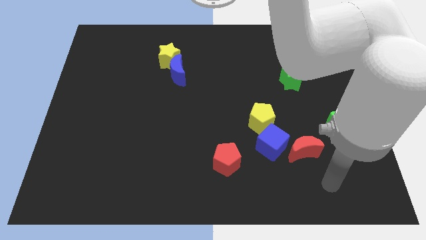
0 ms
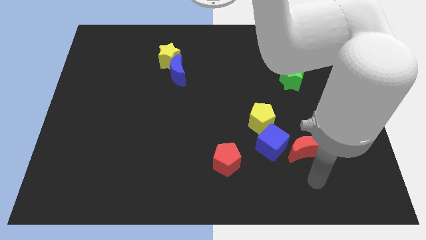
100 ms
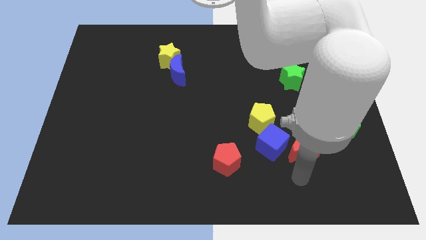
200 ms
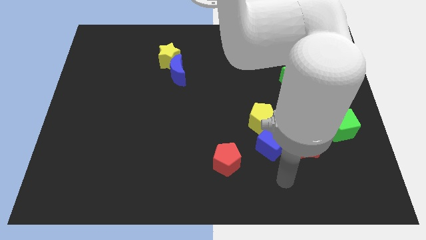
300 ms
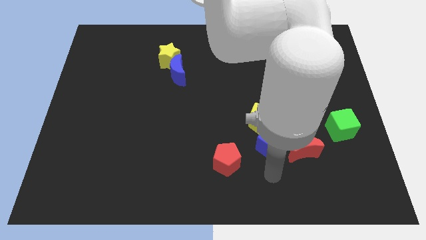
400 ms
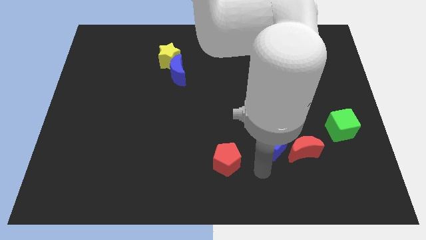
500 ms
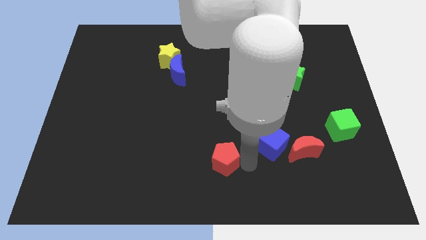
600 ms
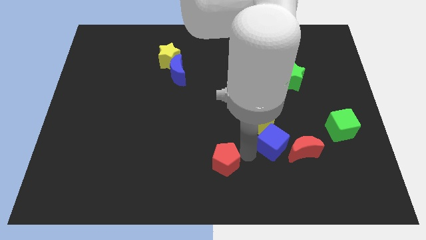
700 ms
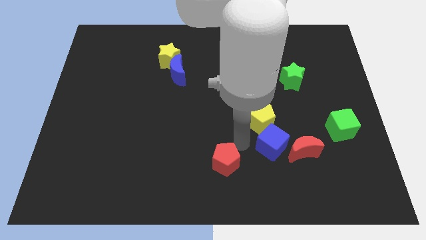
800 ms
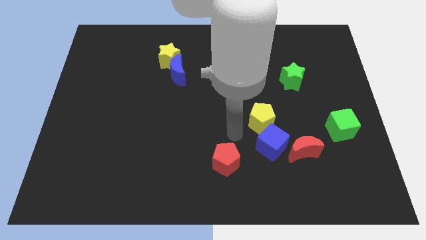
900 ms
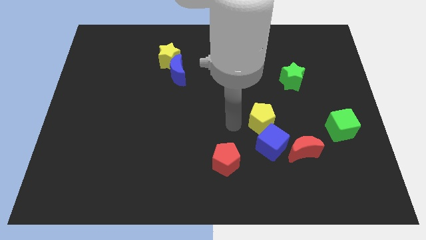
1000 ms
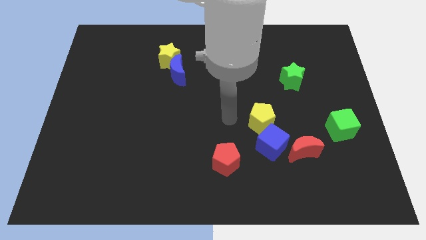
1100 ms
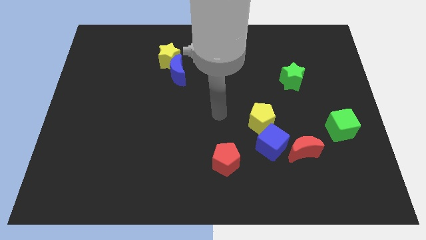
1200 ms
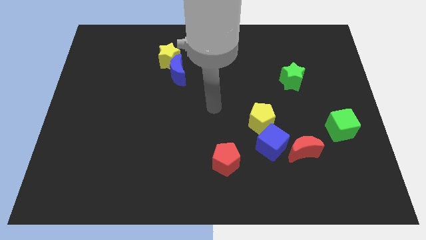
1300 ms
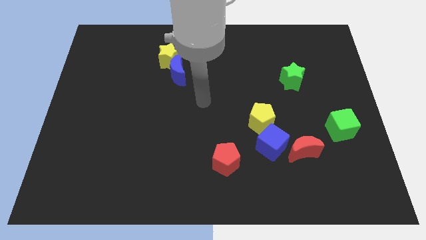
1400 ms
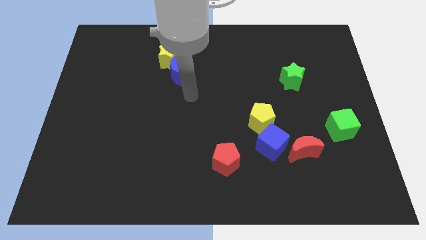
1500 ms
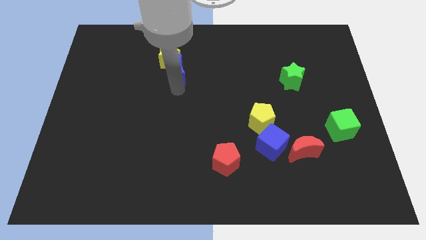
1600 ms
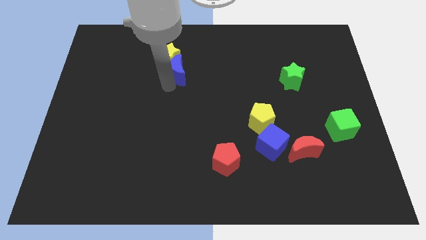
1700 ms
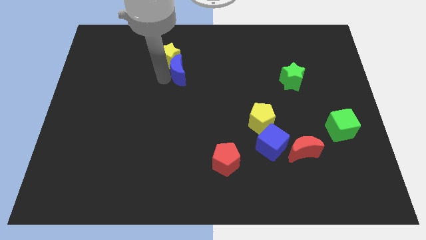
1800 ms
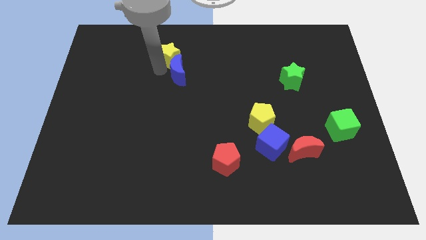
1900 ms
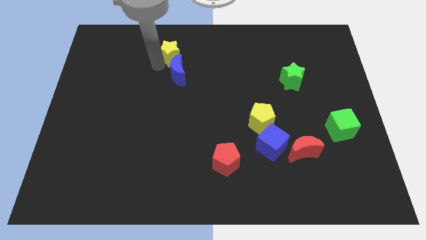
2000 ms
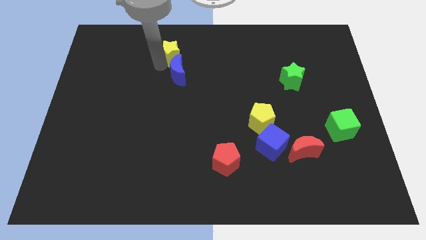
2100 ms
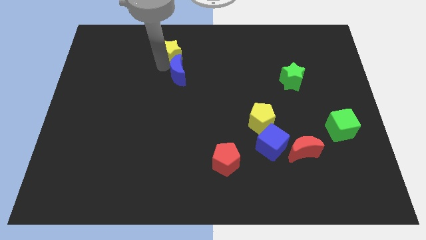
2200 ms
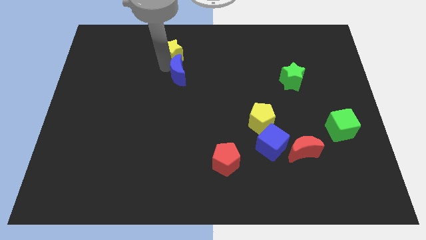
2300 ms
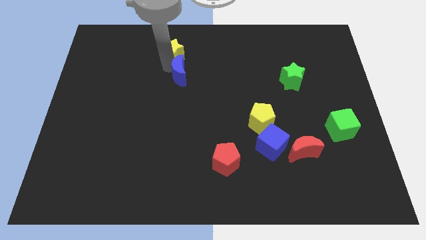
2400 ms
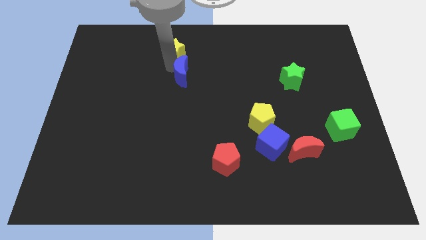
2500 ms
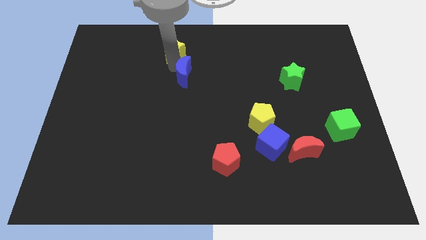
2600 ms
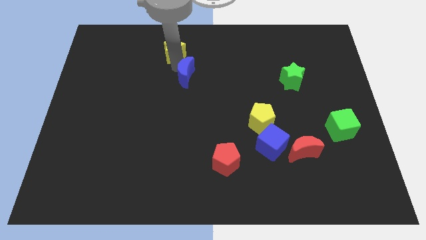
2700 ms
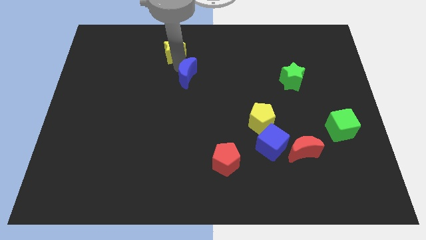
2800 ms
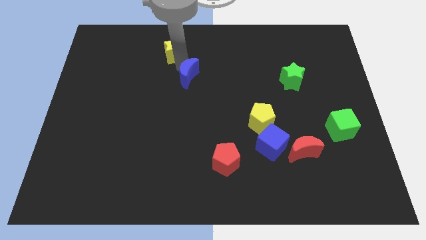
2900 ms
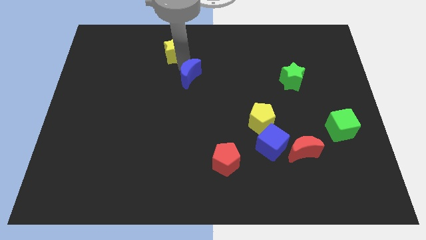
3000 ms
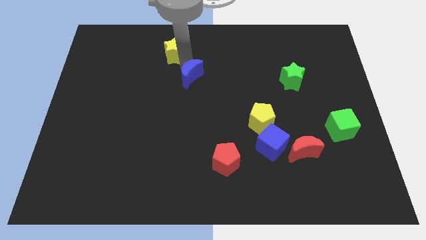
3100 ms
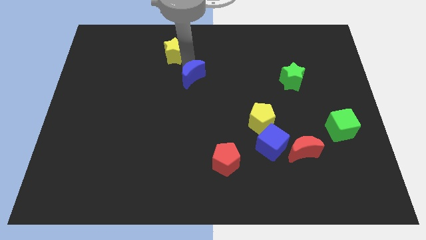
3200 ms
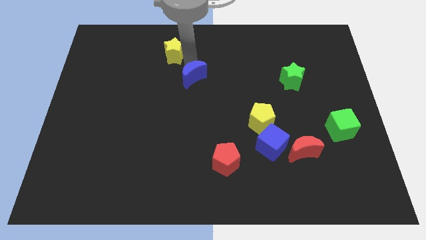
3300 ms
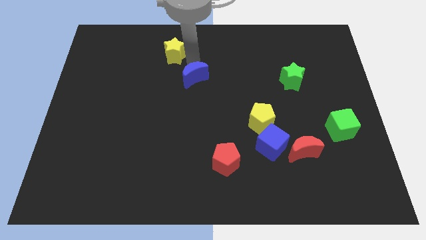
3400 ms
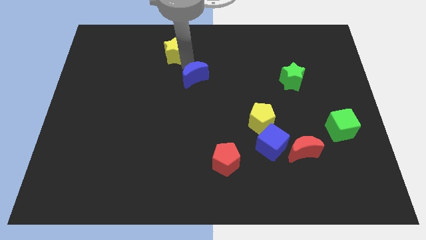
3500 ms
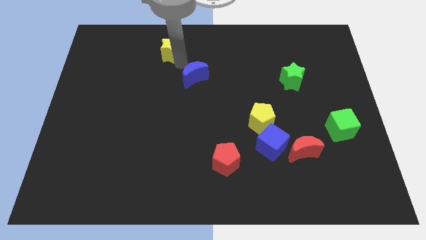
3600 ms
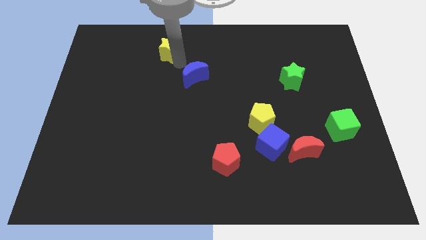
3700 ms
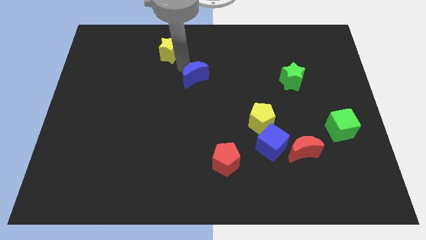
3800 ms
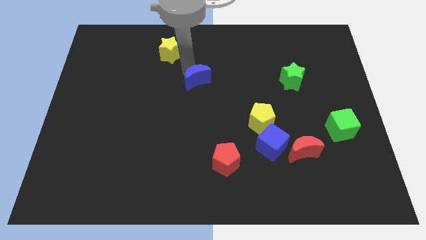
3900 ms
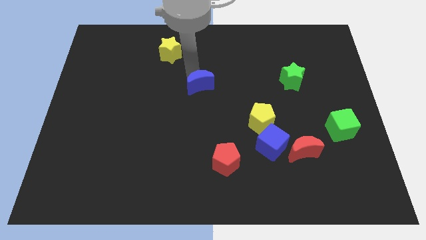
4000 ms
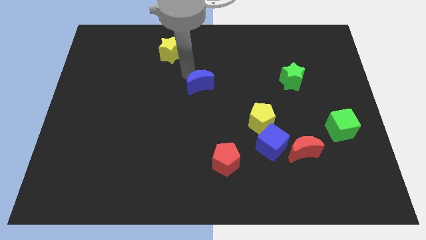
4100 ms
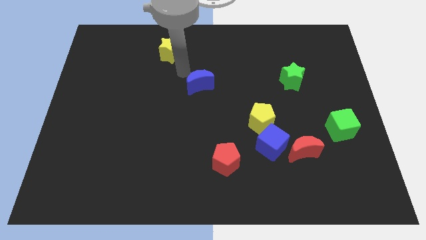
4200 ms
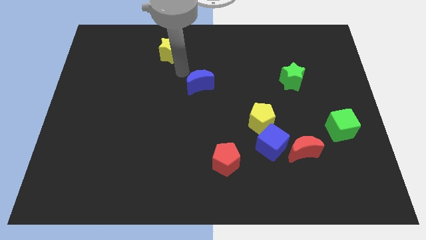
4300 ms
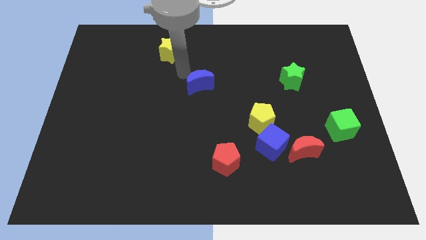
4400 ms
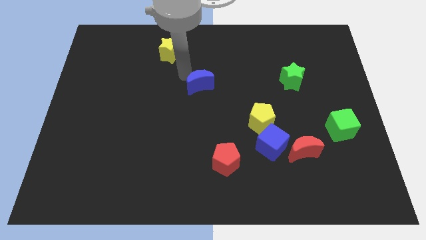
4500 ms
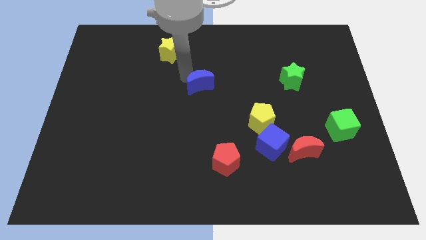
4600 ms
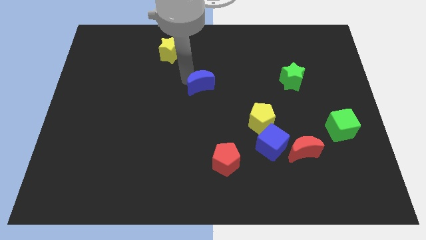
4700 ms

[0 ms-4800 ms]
slightly push the blue moon down and right diagonally

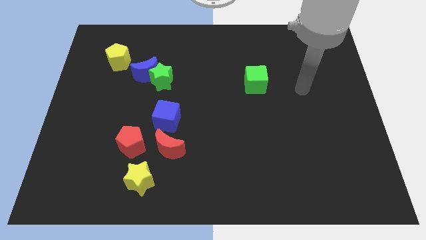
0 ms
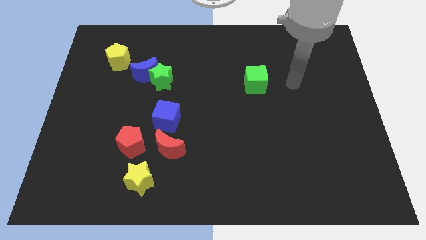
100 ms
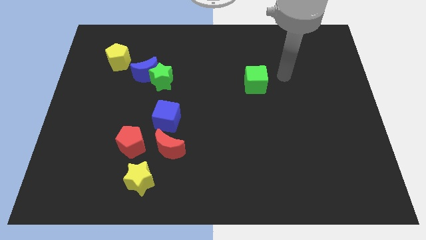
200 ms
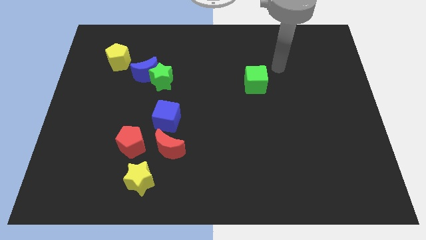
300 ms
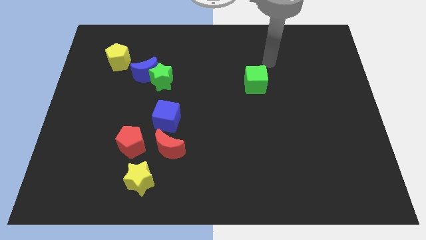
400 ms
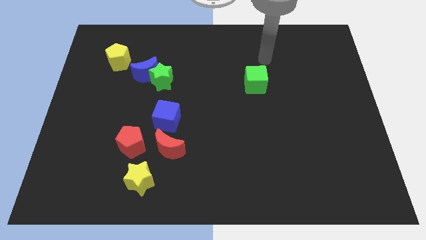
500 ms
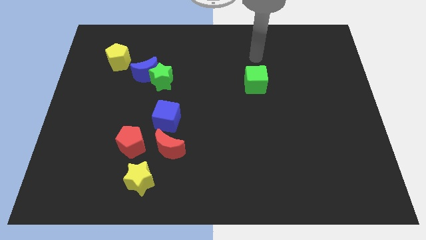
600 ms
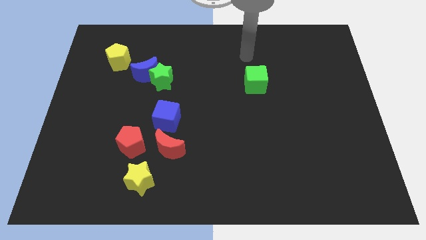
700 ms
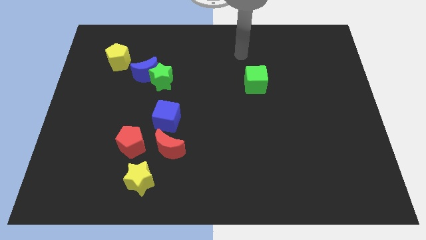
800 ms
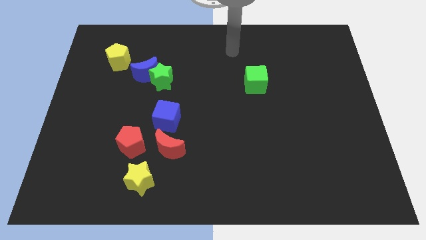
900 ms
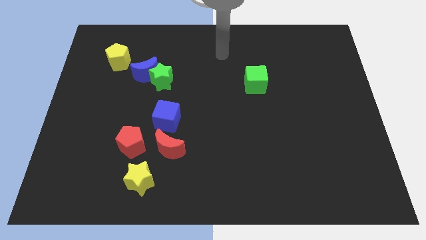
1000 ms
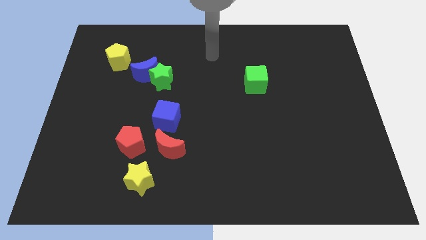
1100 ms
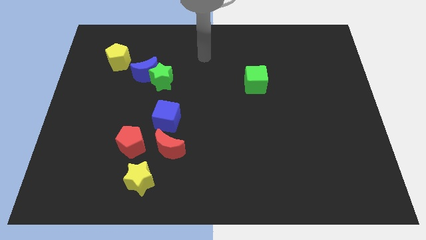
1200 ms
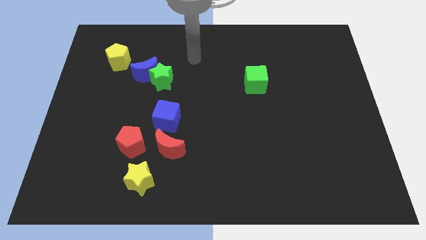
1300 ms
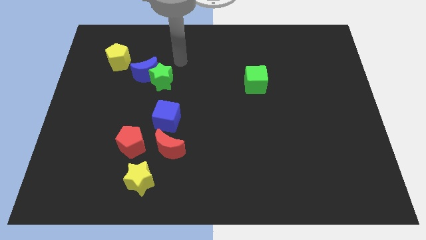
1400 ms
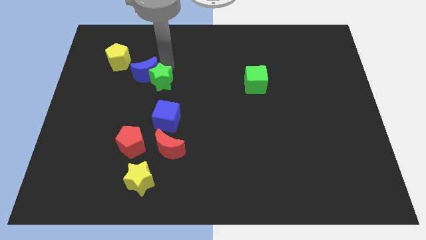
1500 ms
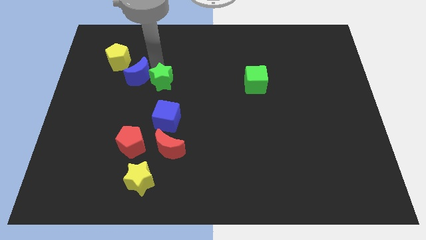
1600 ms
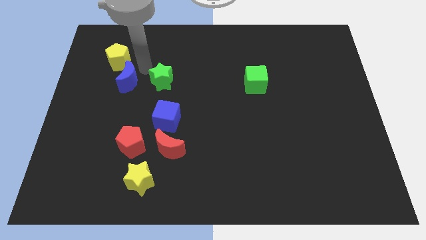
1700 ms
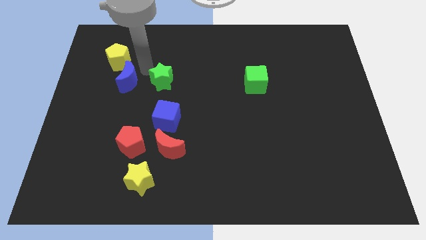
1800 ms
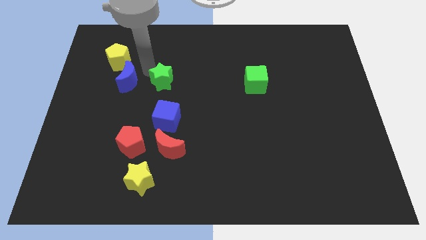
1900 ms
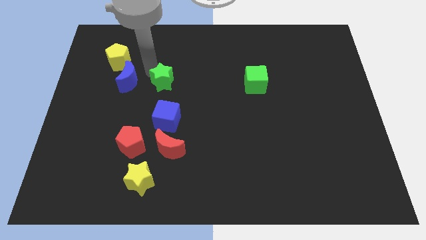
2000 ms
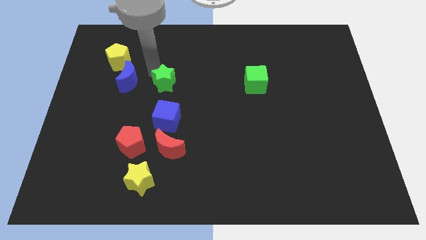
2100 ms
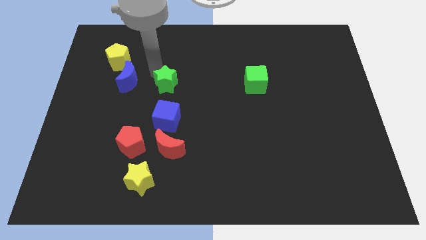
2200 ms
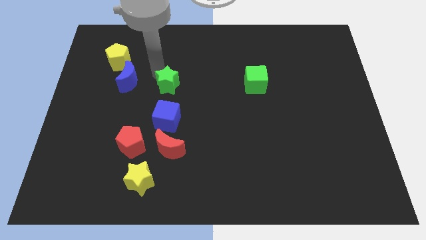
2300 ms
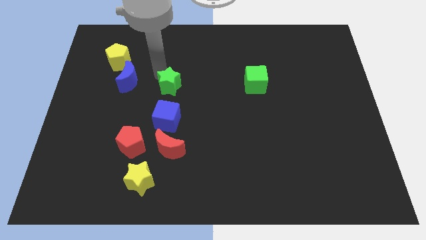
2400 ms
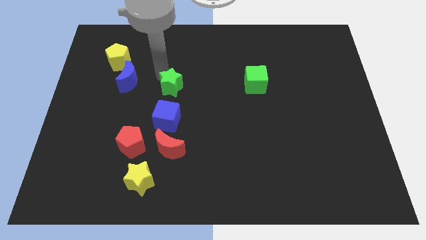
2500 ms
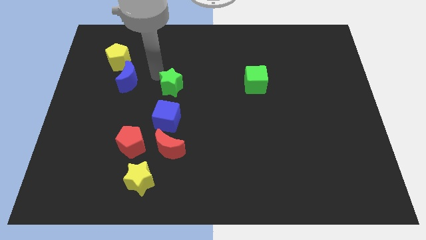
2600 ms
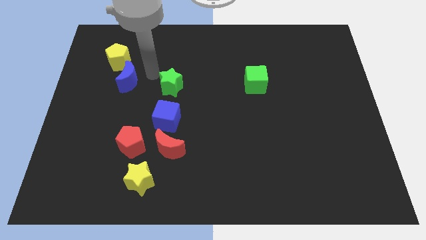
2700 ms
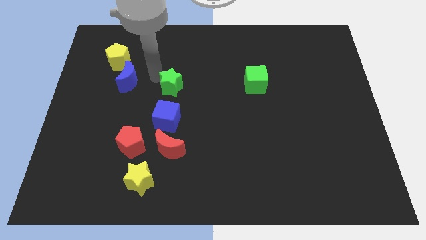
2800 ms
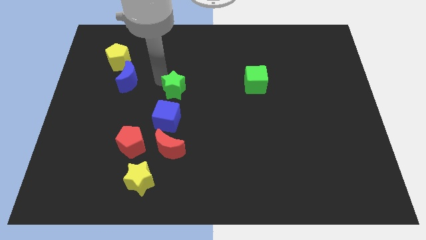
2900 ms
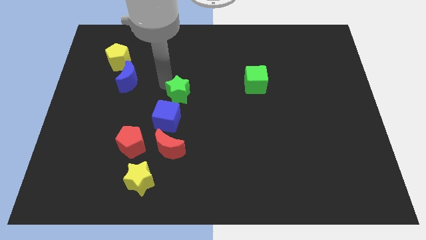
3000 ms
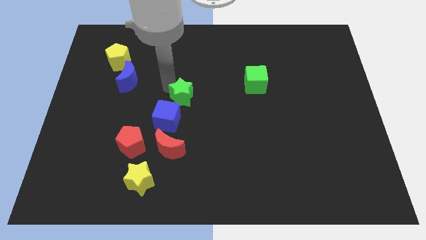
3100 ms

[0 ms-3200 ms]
slide the green star downwards and right diagonally a little bit

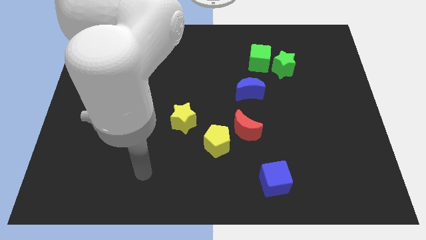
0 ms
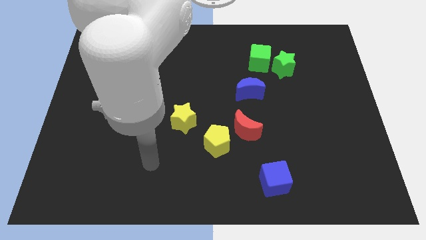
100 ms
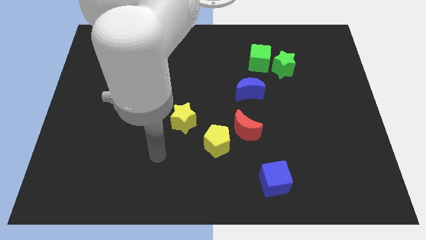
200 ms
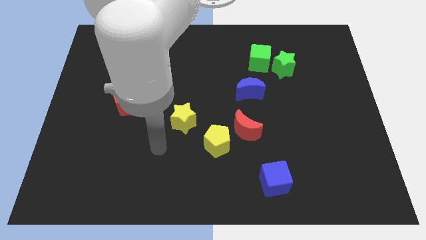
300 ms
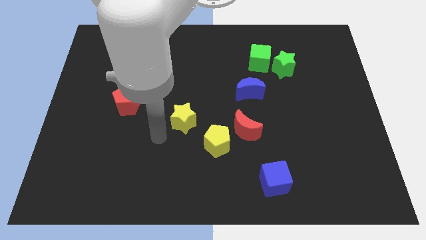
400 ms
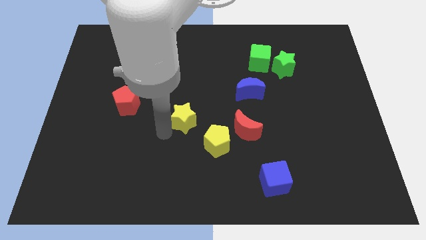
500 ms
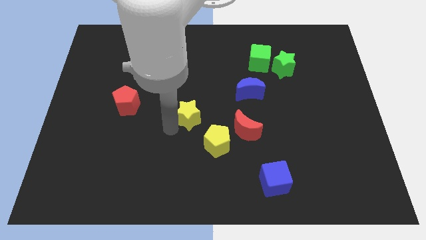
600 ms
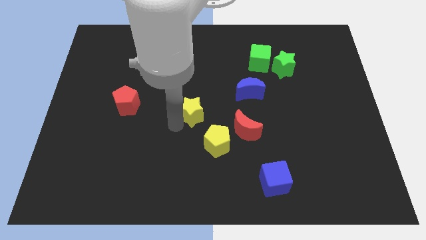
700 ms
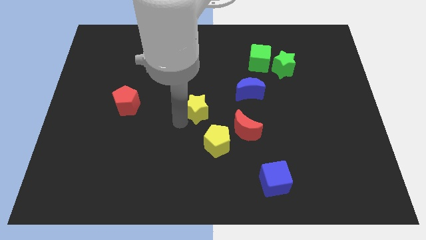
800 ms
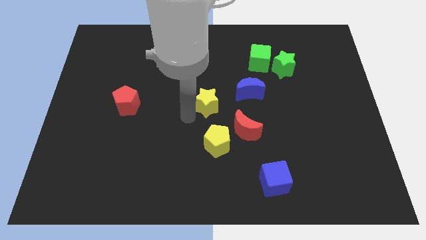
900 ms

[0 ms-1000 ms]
push the yellow star up and to the right slightly
